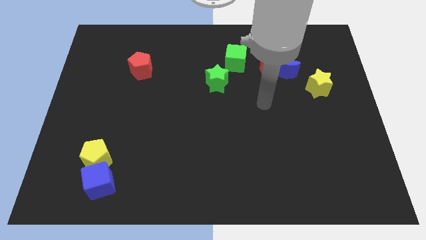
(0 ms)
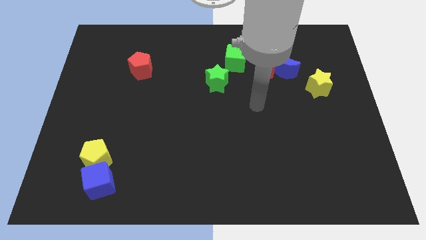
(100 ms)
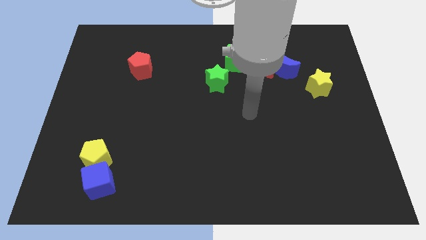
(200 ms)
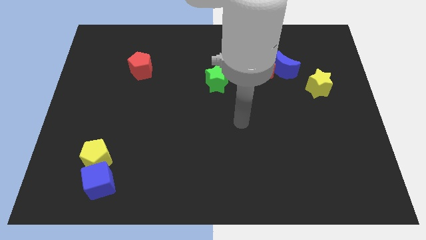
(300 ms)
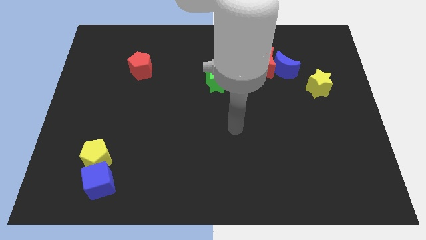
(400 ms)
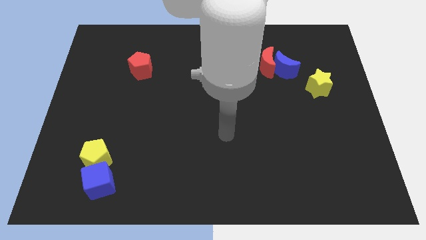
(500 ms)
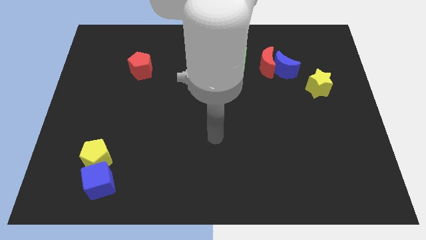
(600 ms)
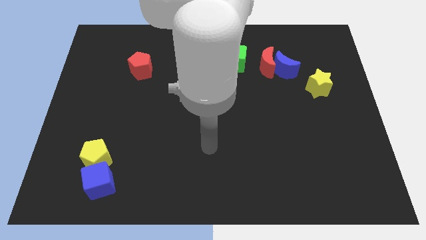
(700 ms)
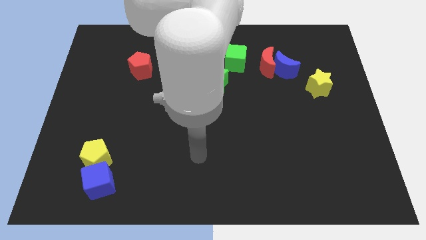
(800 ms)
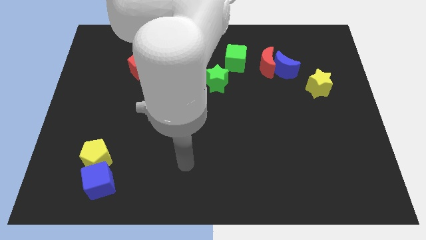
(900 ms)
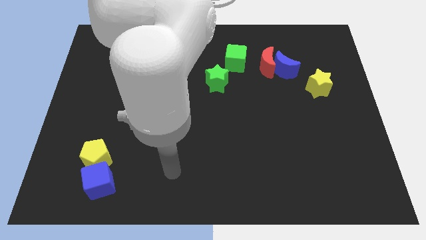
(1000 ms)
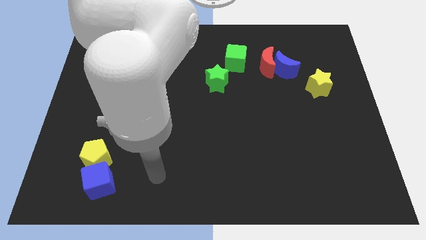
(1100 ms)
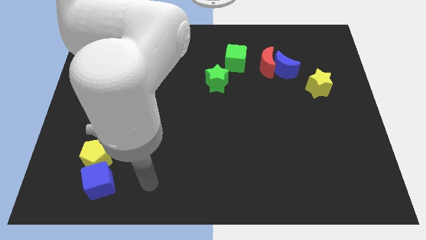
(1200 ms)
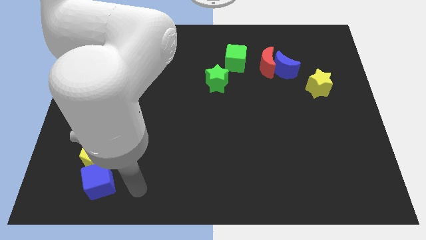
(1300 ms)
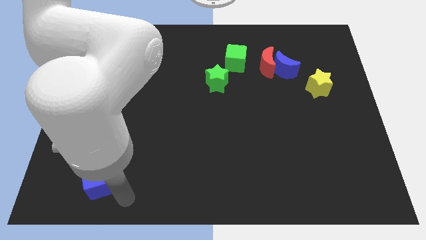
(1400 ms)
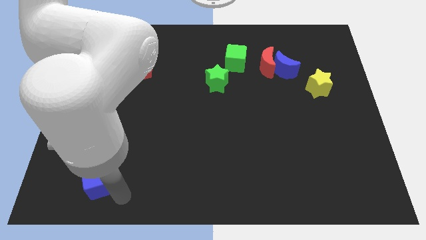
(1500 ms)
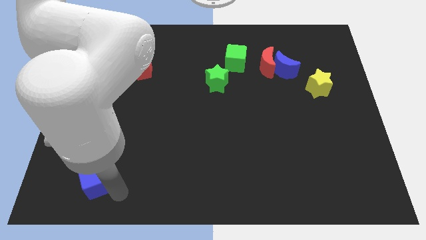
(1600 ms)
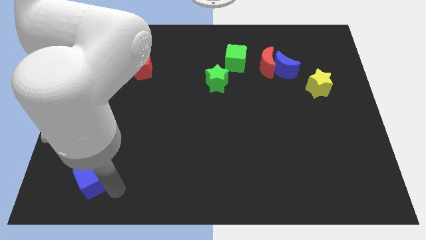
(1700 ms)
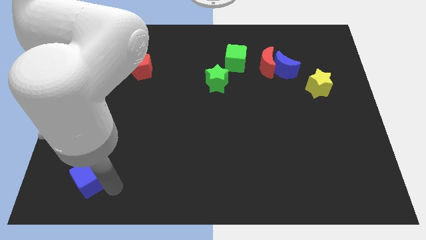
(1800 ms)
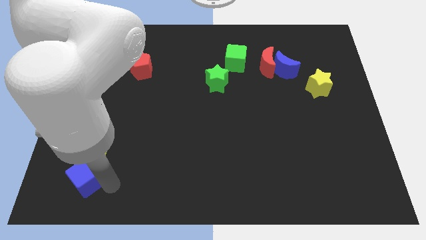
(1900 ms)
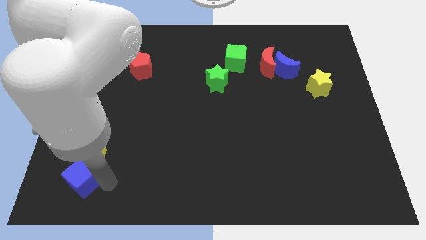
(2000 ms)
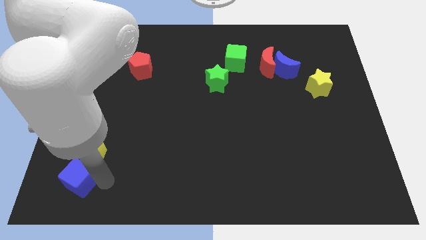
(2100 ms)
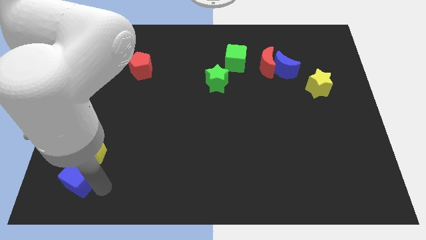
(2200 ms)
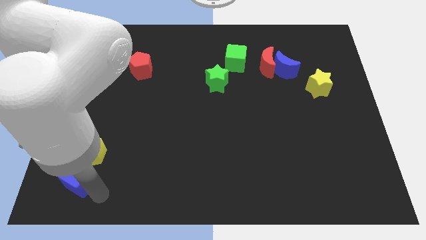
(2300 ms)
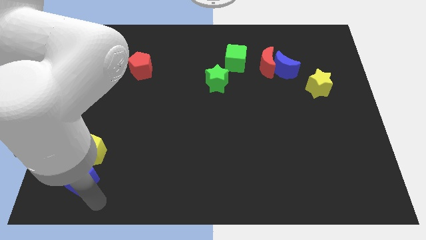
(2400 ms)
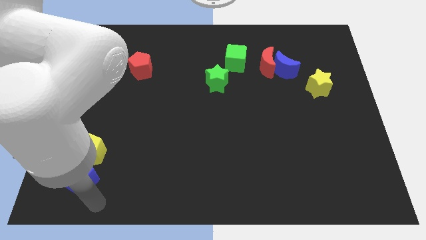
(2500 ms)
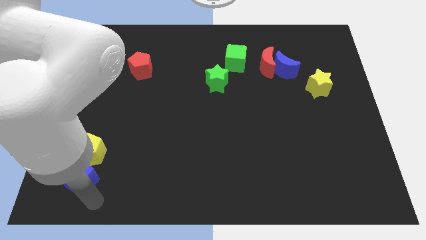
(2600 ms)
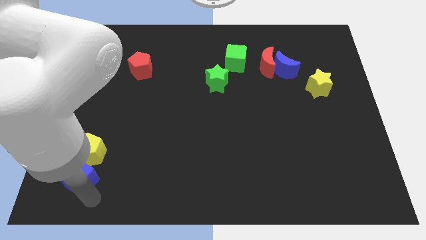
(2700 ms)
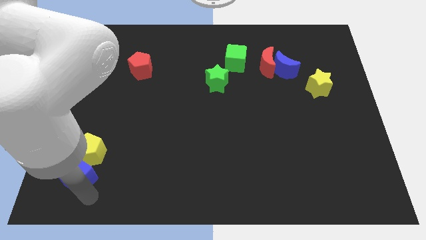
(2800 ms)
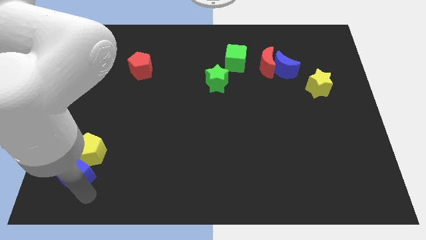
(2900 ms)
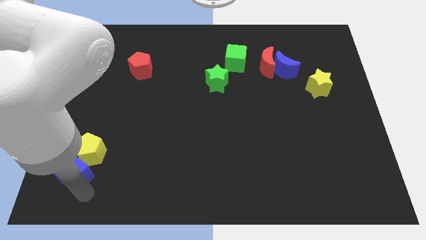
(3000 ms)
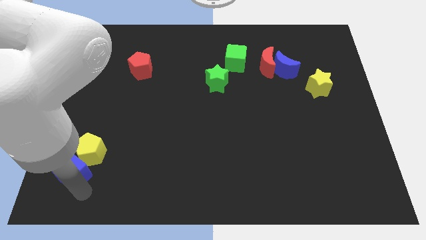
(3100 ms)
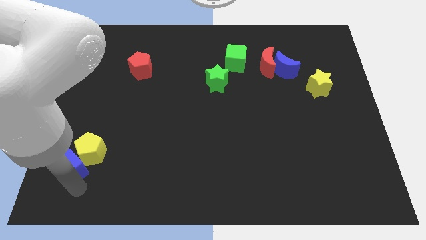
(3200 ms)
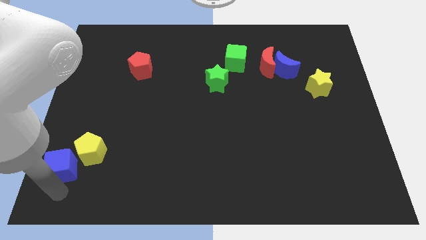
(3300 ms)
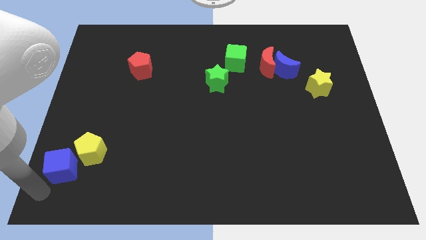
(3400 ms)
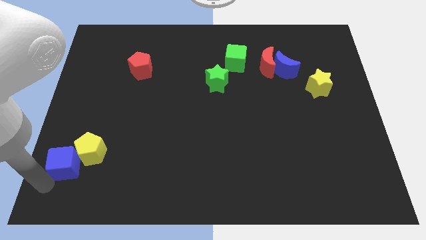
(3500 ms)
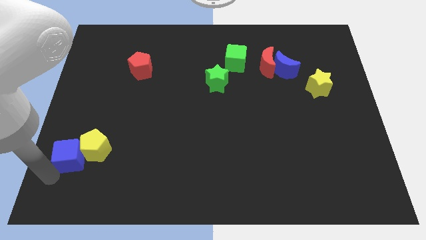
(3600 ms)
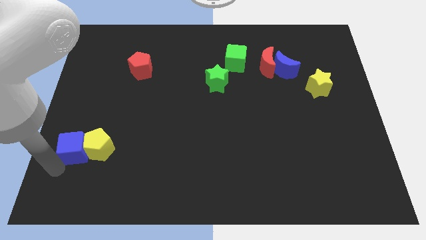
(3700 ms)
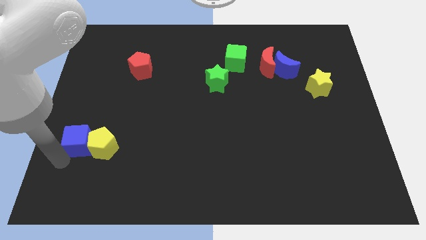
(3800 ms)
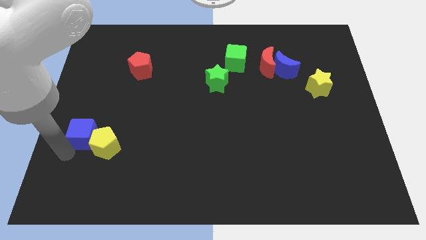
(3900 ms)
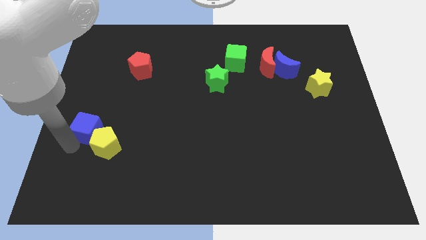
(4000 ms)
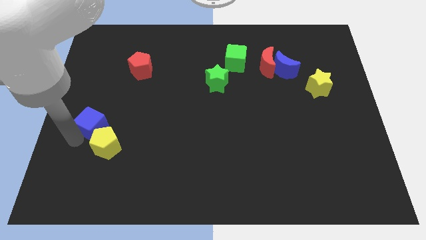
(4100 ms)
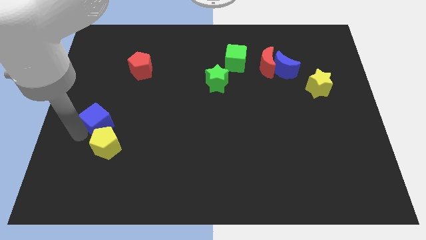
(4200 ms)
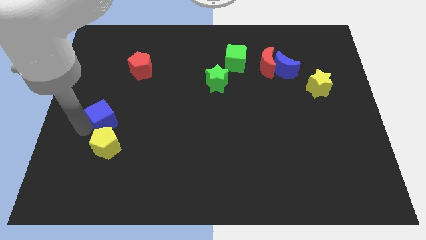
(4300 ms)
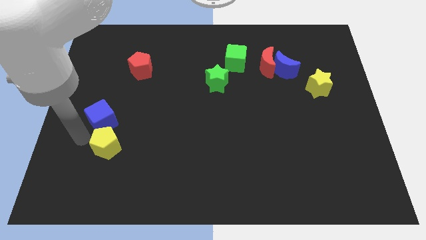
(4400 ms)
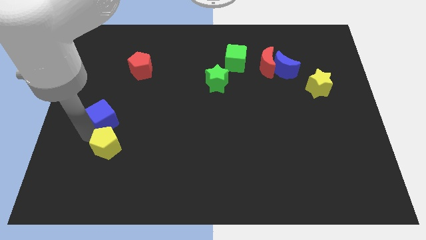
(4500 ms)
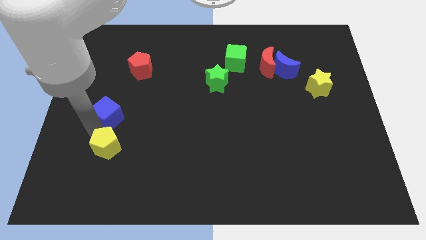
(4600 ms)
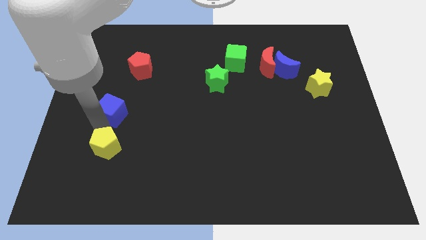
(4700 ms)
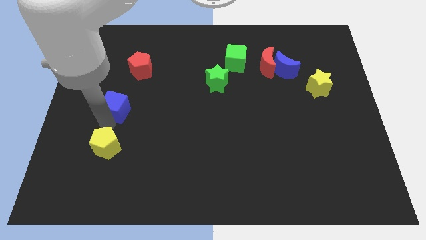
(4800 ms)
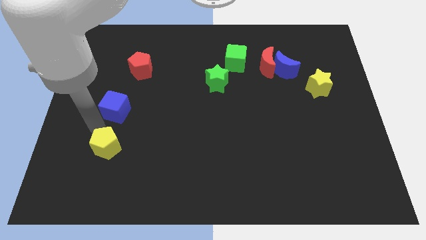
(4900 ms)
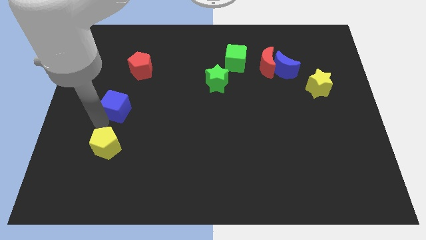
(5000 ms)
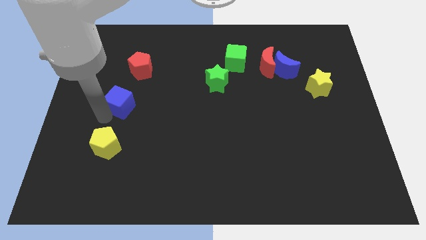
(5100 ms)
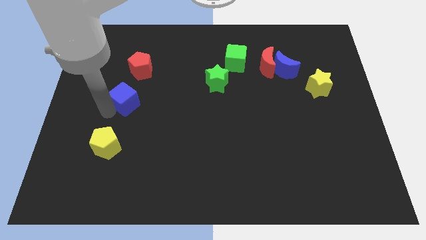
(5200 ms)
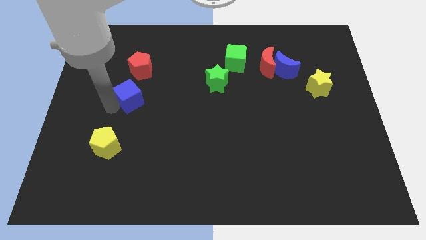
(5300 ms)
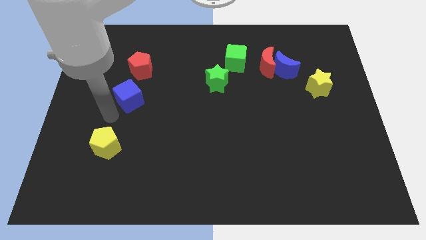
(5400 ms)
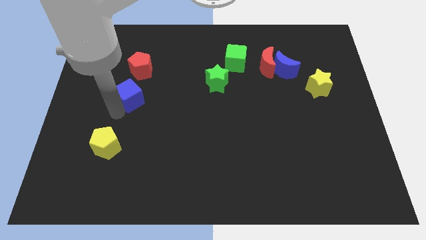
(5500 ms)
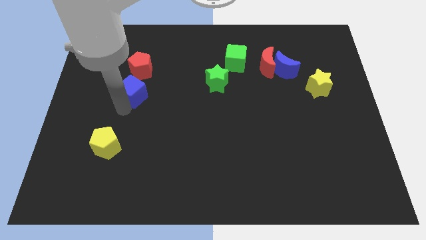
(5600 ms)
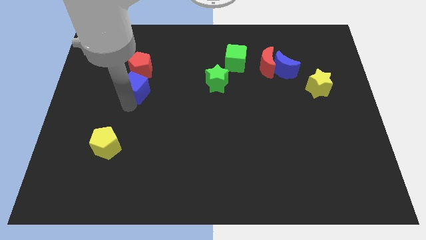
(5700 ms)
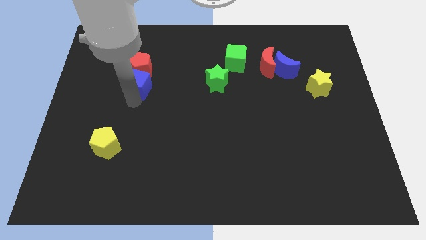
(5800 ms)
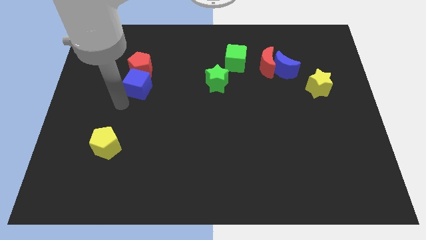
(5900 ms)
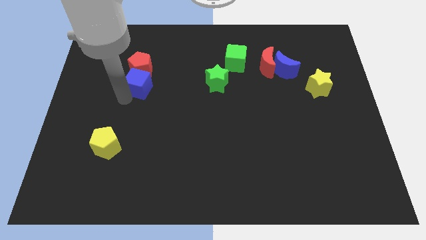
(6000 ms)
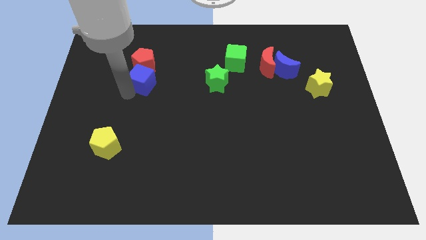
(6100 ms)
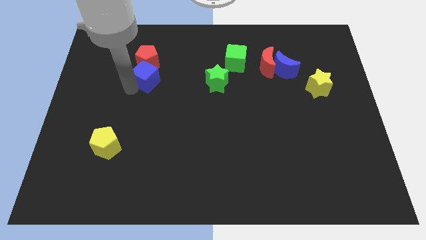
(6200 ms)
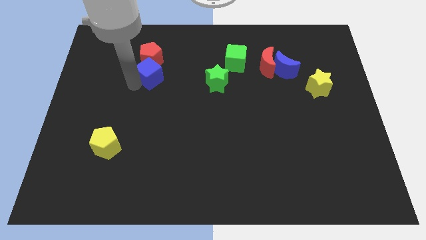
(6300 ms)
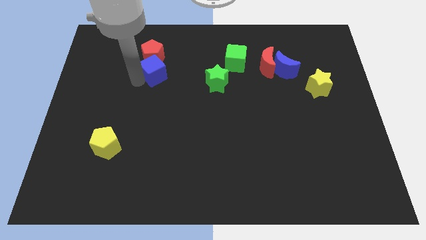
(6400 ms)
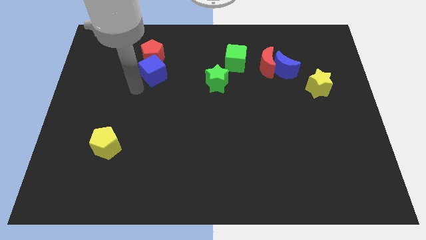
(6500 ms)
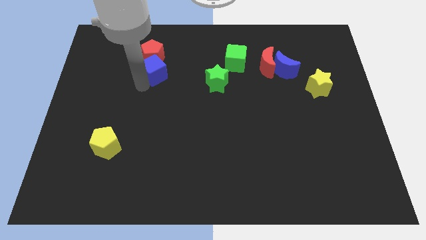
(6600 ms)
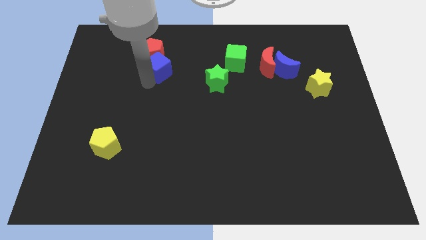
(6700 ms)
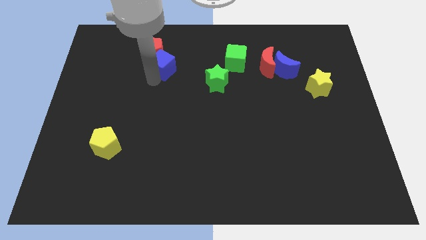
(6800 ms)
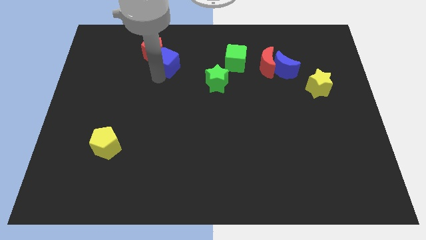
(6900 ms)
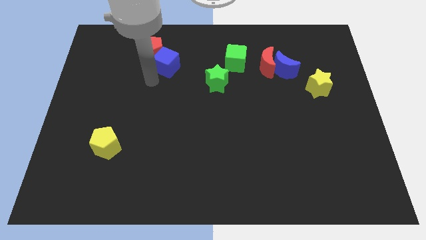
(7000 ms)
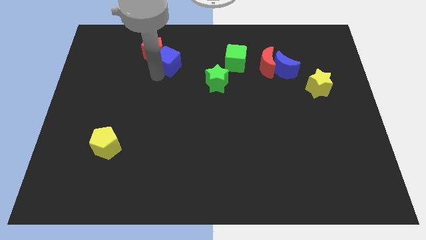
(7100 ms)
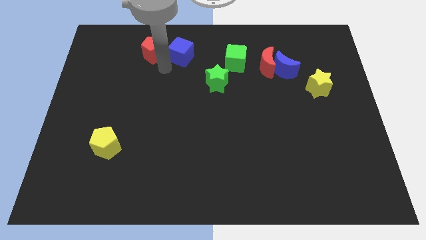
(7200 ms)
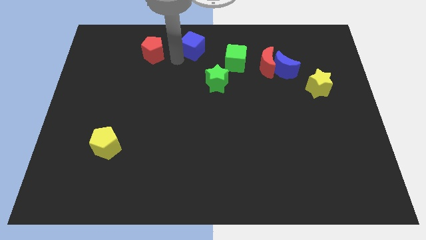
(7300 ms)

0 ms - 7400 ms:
put the blue cube to the towards your base
